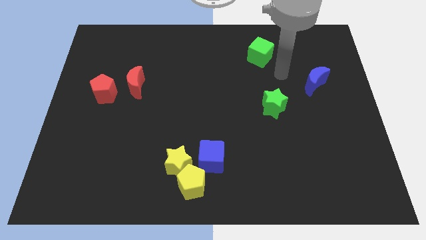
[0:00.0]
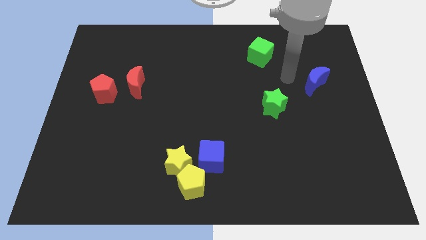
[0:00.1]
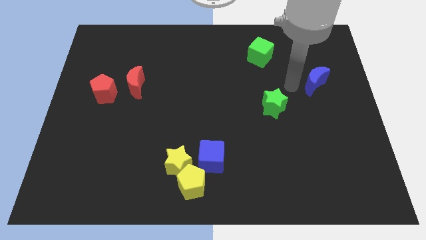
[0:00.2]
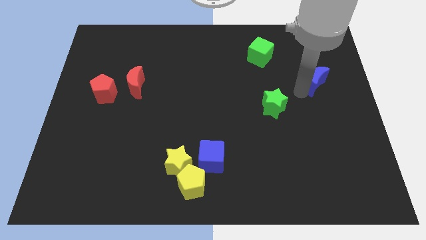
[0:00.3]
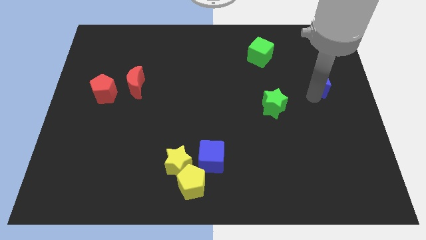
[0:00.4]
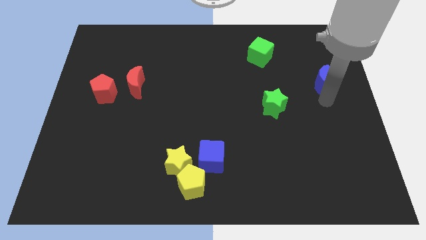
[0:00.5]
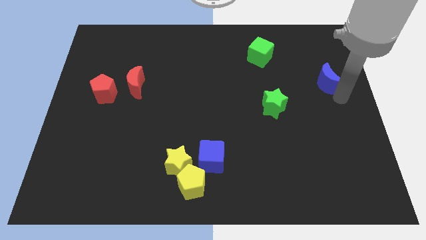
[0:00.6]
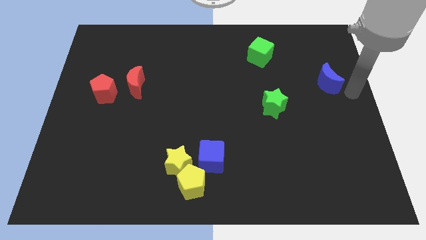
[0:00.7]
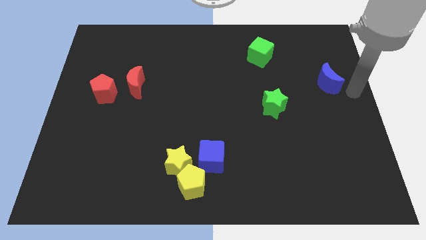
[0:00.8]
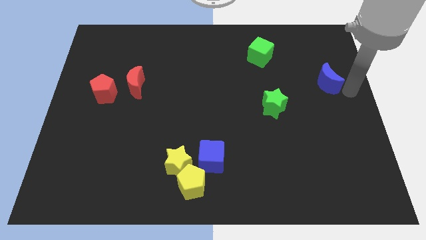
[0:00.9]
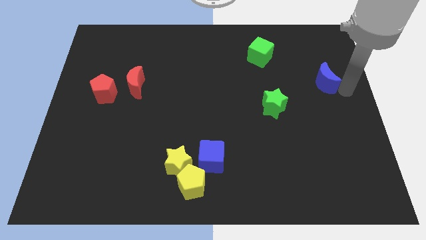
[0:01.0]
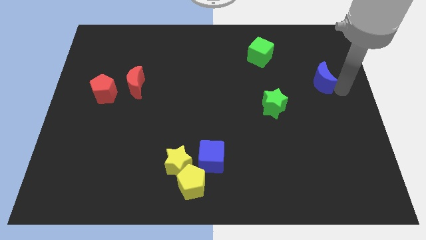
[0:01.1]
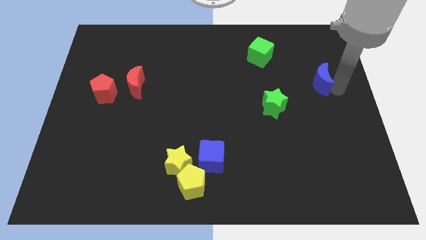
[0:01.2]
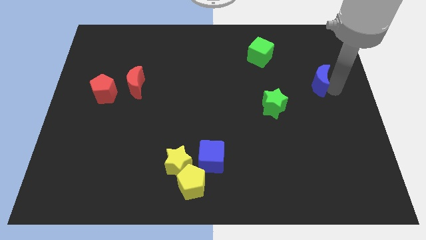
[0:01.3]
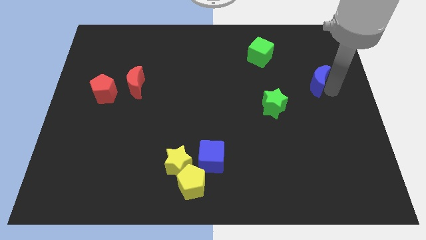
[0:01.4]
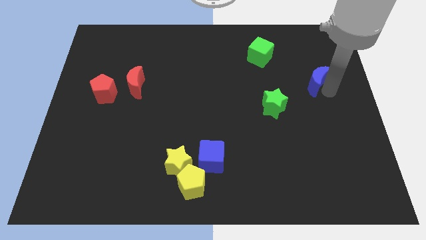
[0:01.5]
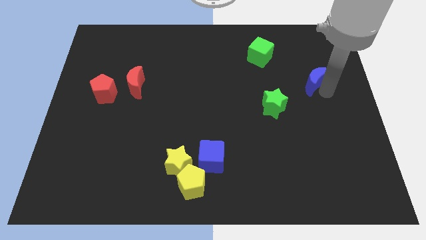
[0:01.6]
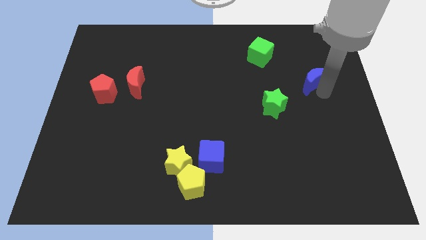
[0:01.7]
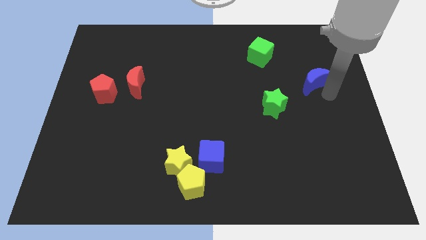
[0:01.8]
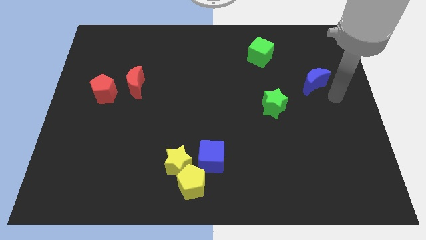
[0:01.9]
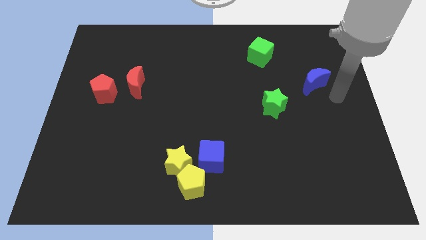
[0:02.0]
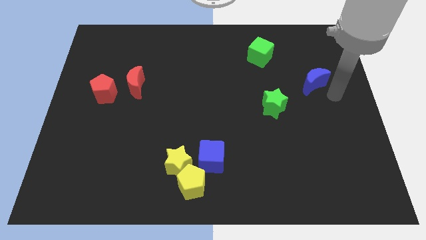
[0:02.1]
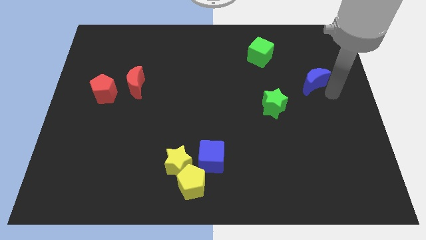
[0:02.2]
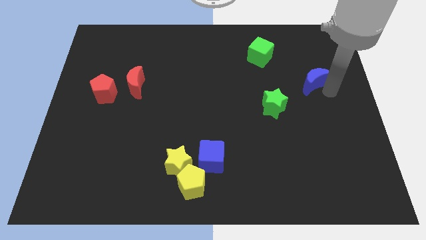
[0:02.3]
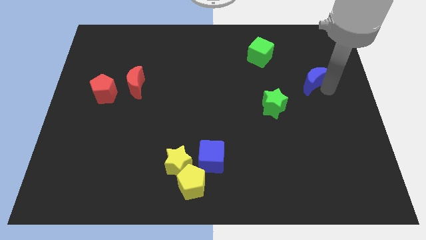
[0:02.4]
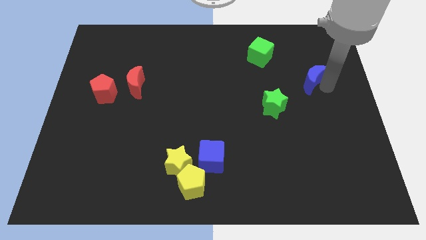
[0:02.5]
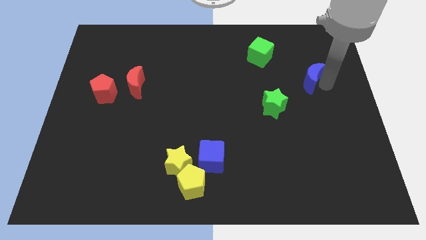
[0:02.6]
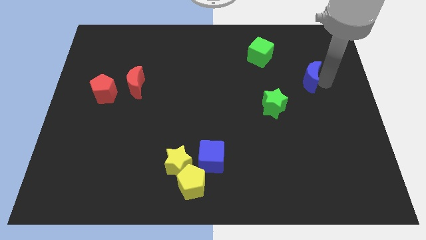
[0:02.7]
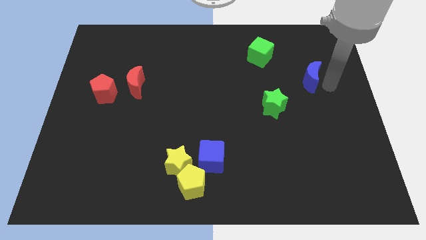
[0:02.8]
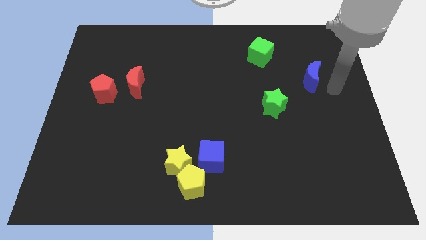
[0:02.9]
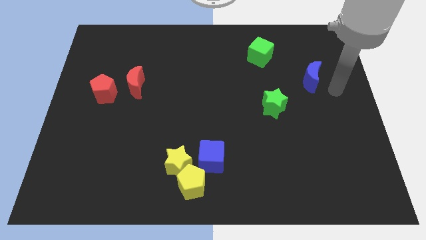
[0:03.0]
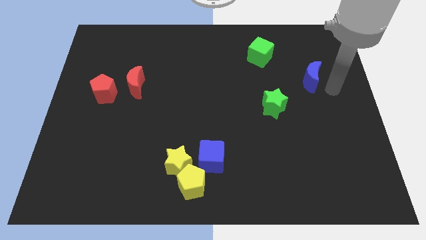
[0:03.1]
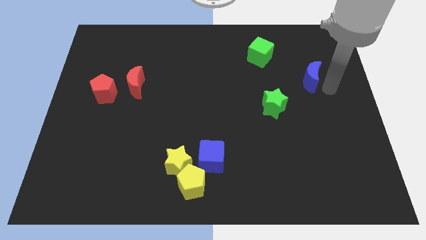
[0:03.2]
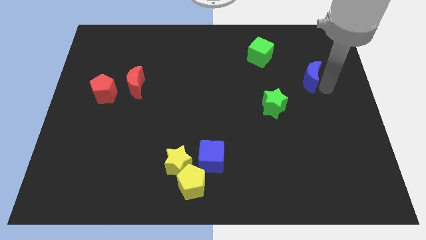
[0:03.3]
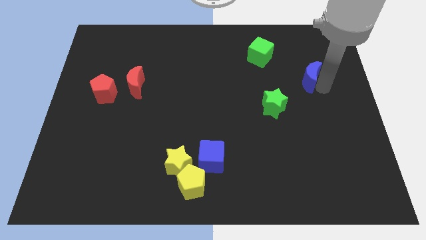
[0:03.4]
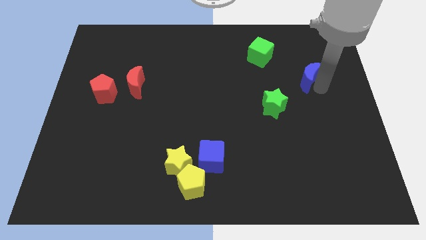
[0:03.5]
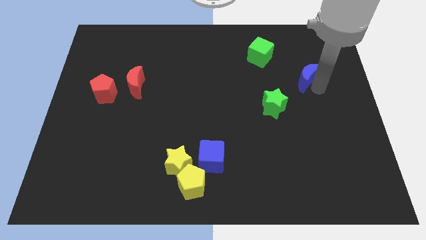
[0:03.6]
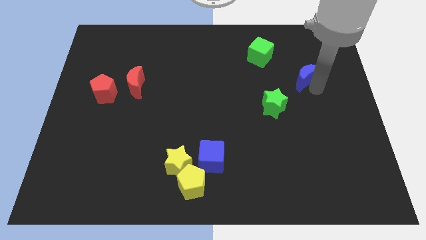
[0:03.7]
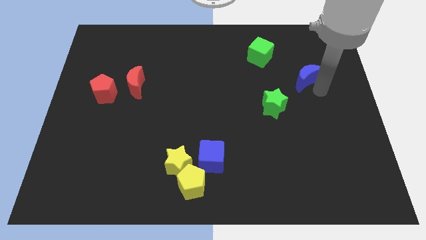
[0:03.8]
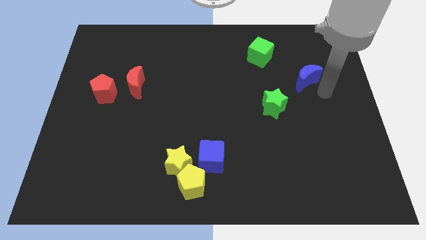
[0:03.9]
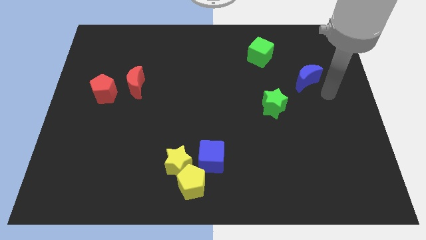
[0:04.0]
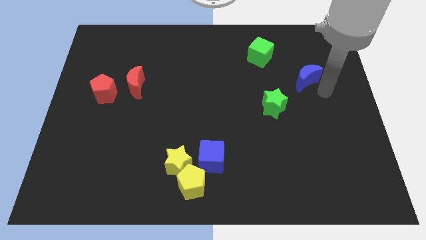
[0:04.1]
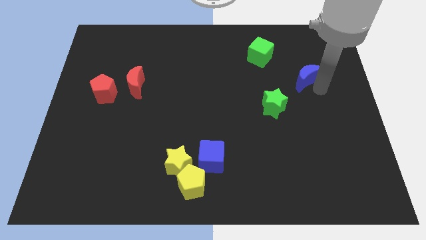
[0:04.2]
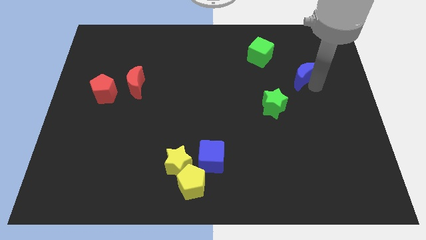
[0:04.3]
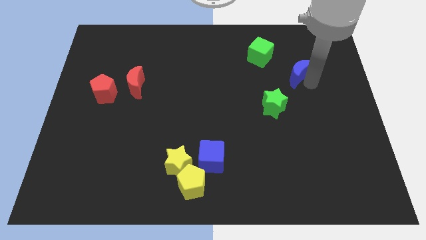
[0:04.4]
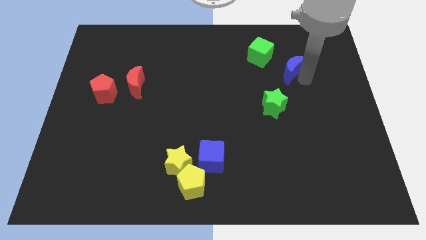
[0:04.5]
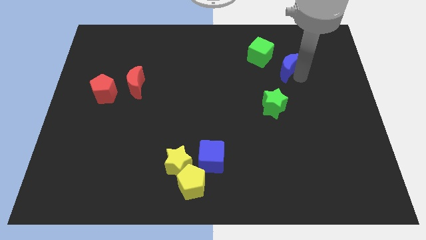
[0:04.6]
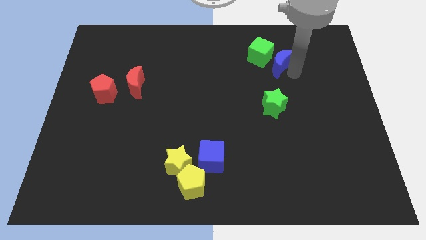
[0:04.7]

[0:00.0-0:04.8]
slide the blue moon to the green cube

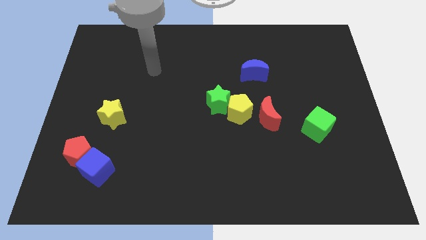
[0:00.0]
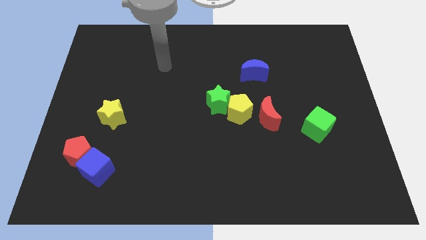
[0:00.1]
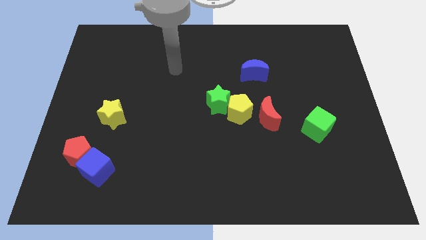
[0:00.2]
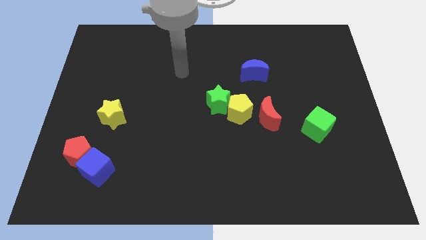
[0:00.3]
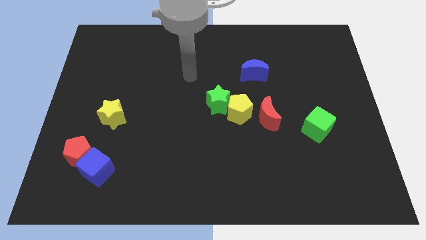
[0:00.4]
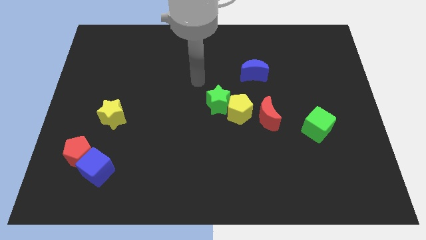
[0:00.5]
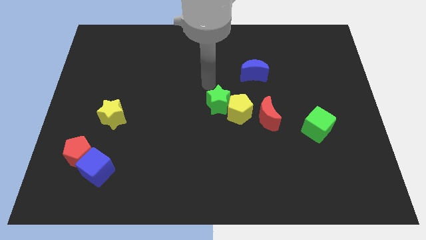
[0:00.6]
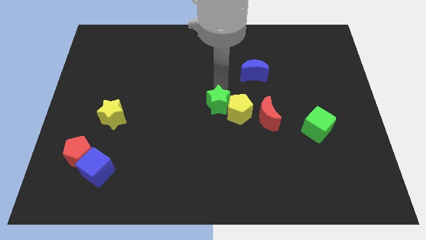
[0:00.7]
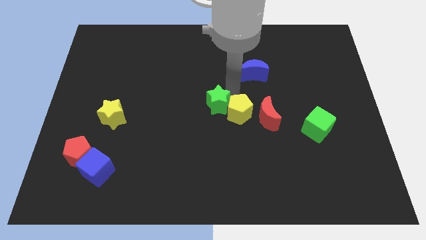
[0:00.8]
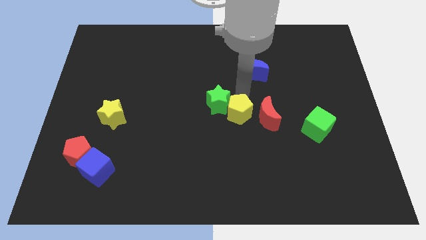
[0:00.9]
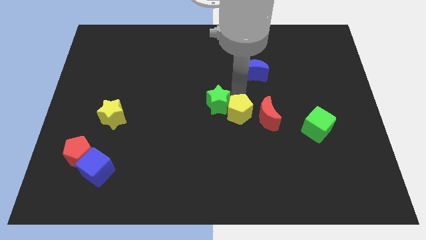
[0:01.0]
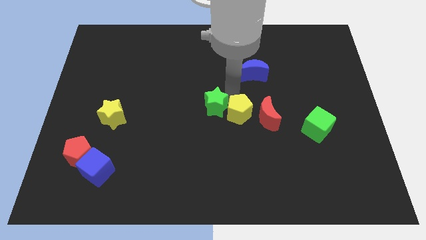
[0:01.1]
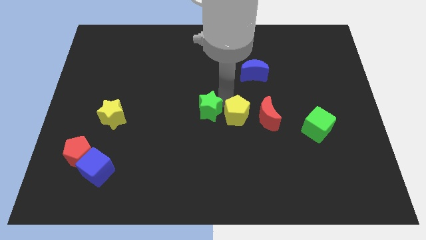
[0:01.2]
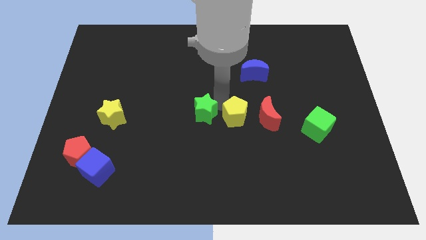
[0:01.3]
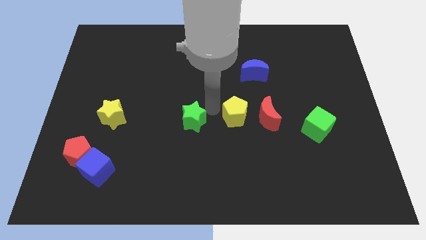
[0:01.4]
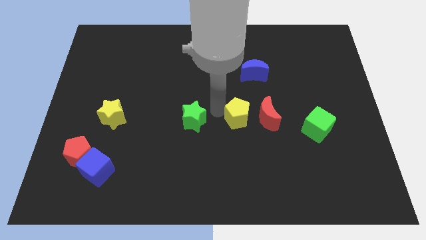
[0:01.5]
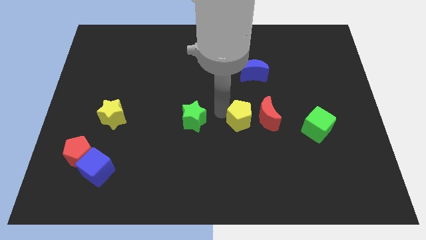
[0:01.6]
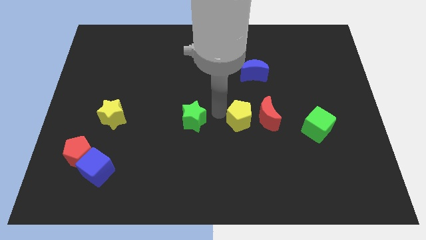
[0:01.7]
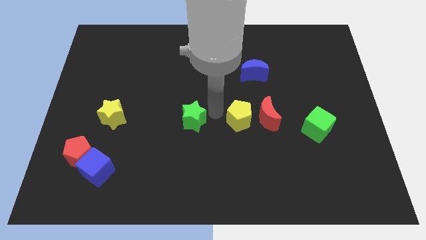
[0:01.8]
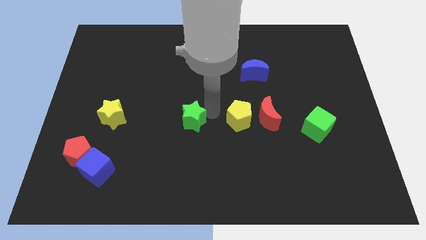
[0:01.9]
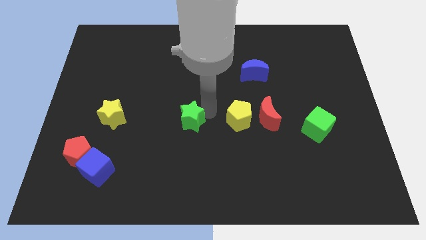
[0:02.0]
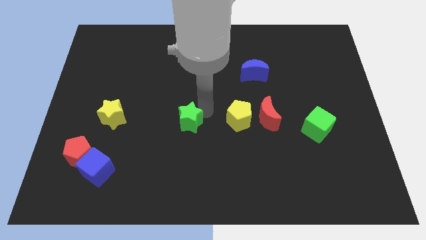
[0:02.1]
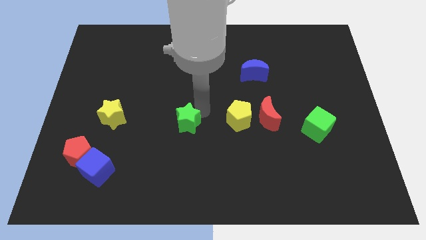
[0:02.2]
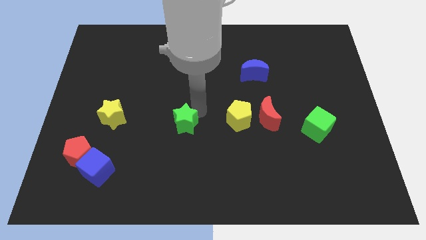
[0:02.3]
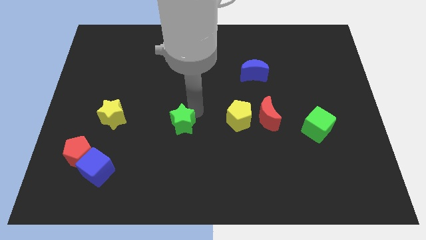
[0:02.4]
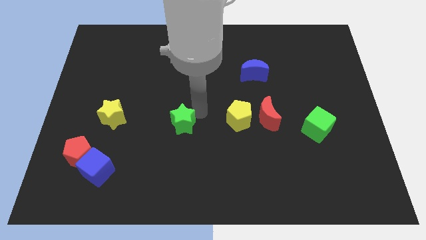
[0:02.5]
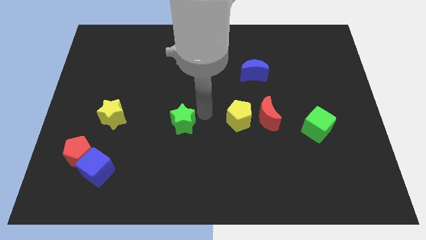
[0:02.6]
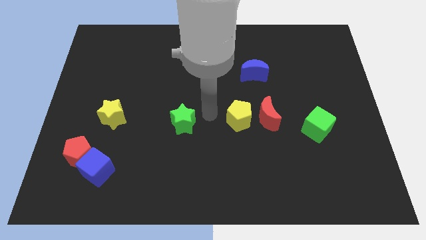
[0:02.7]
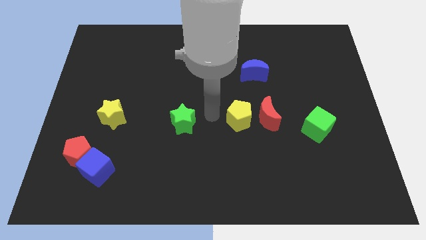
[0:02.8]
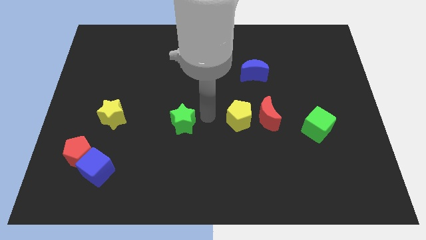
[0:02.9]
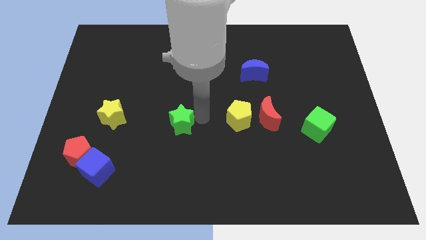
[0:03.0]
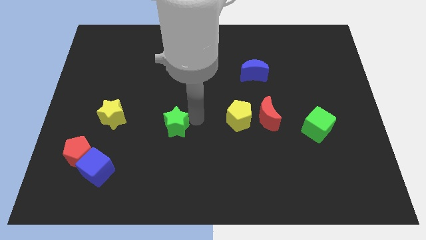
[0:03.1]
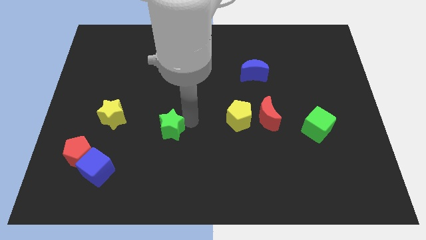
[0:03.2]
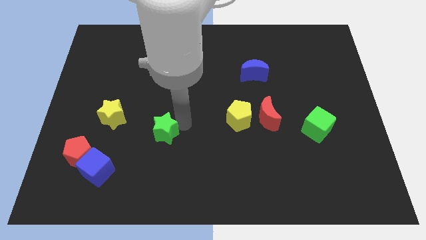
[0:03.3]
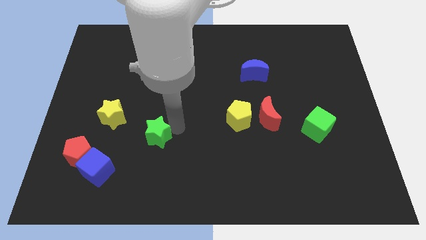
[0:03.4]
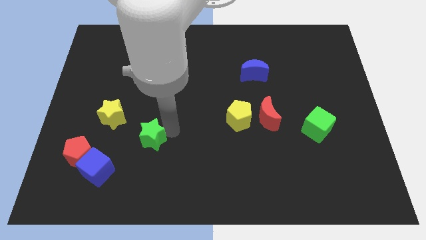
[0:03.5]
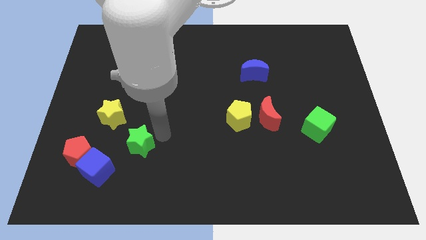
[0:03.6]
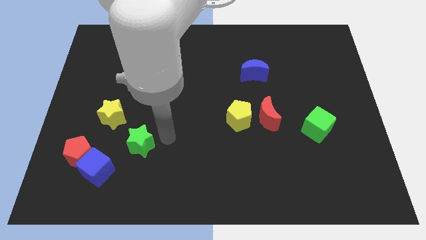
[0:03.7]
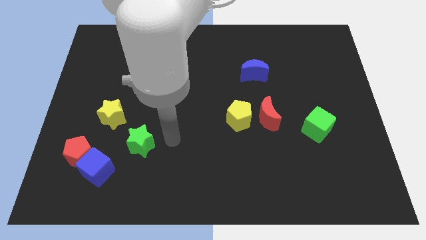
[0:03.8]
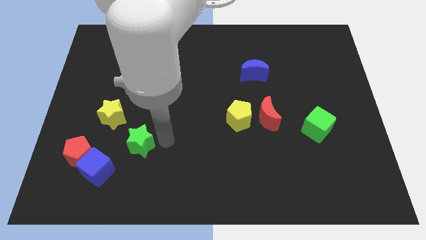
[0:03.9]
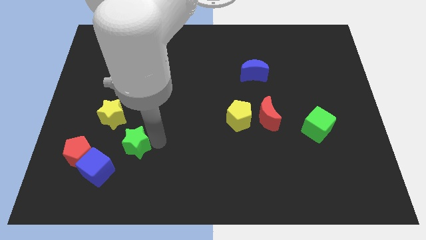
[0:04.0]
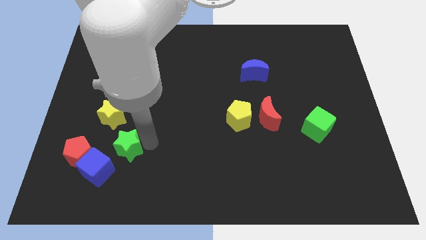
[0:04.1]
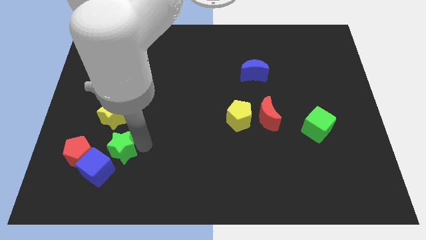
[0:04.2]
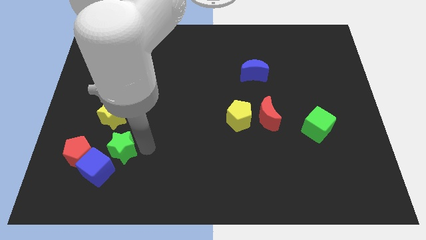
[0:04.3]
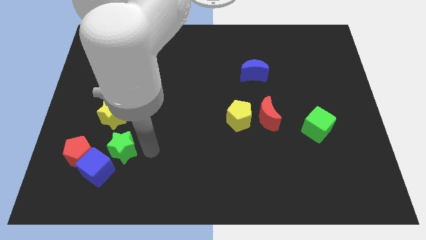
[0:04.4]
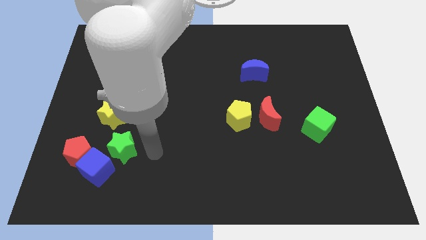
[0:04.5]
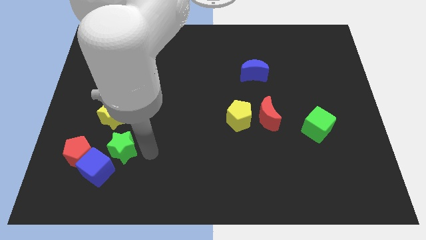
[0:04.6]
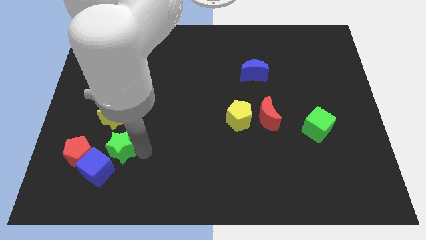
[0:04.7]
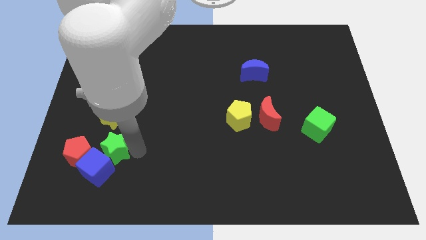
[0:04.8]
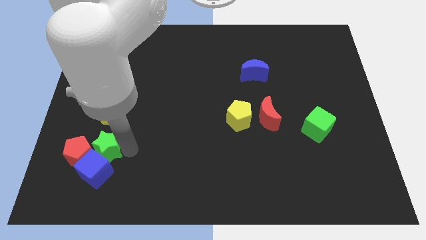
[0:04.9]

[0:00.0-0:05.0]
put the green star close to the red pentagon
